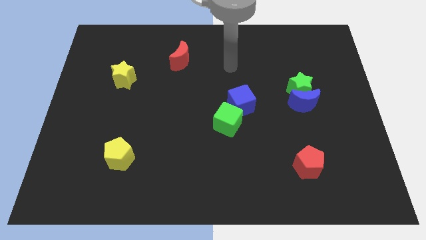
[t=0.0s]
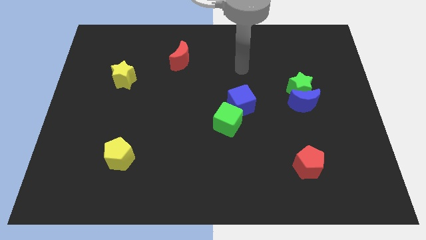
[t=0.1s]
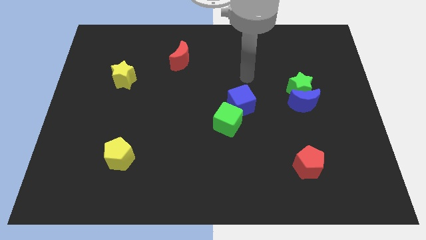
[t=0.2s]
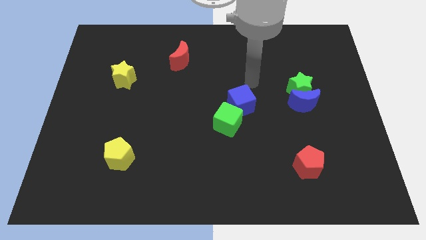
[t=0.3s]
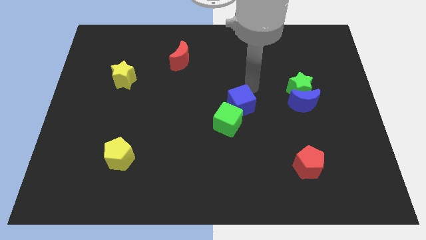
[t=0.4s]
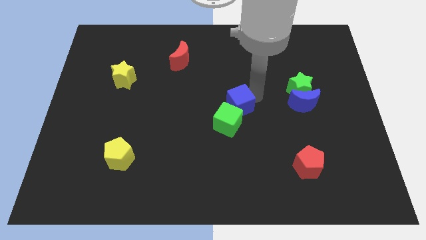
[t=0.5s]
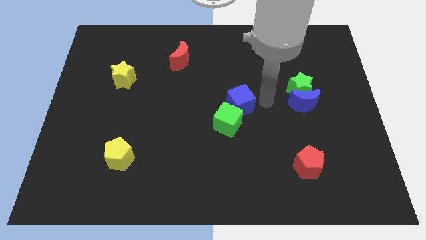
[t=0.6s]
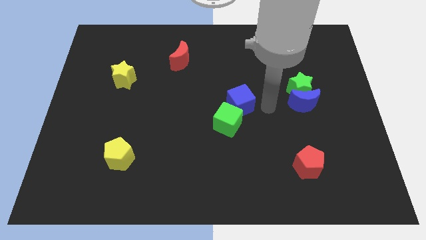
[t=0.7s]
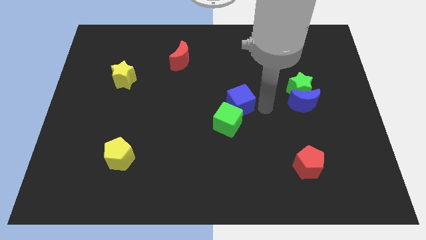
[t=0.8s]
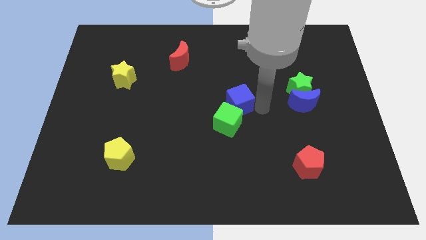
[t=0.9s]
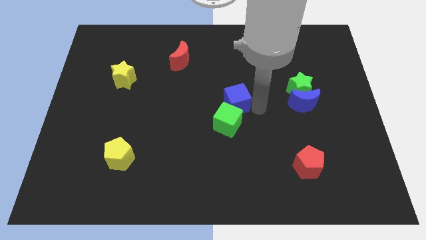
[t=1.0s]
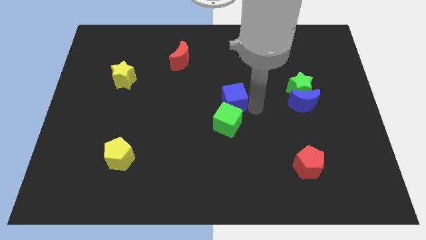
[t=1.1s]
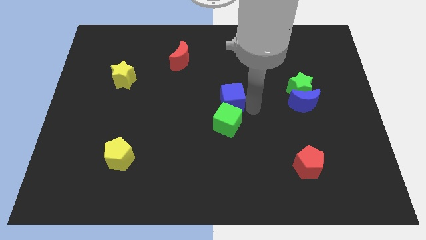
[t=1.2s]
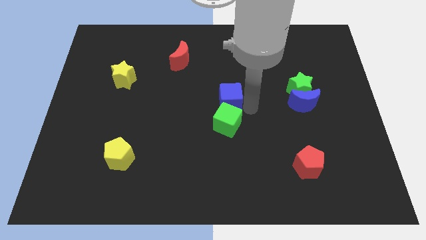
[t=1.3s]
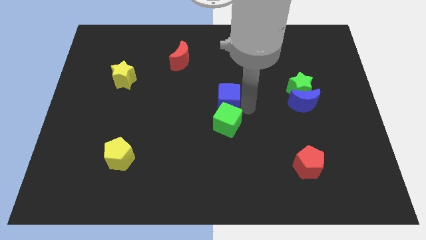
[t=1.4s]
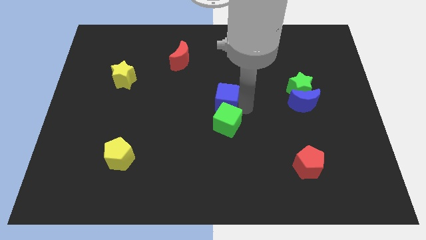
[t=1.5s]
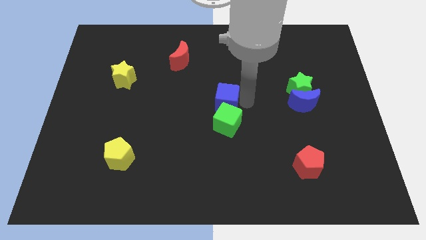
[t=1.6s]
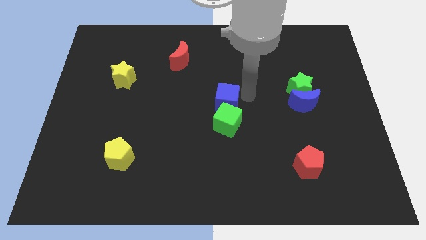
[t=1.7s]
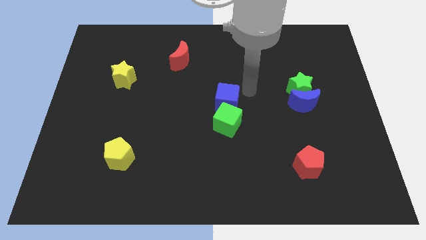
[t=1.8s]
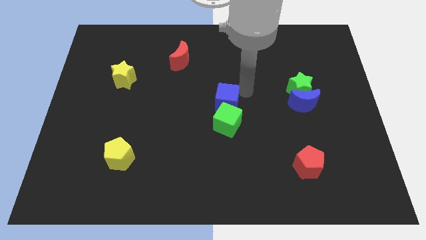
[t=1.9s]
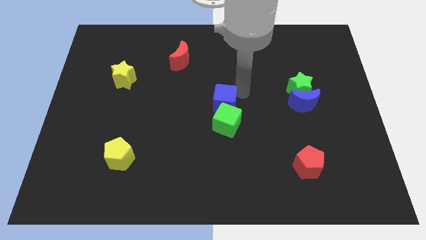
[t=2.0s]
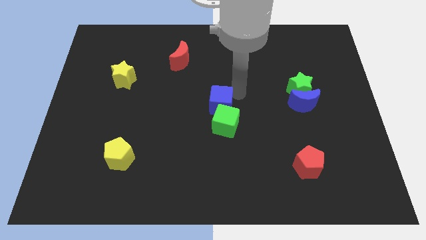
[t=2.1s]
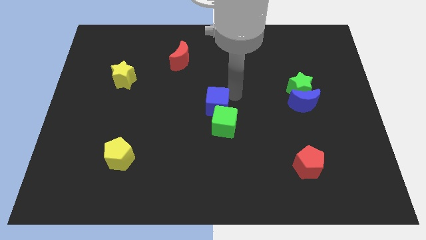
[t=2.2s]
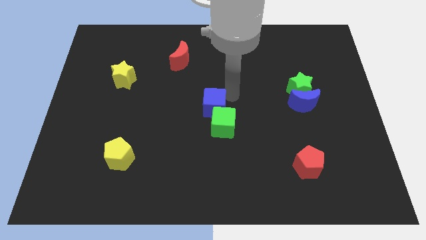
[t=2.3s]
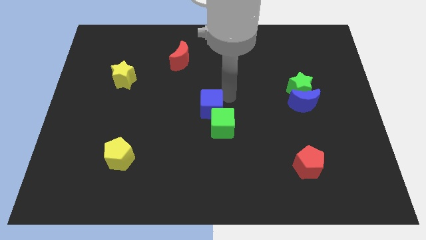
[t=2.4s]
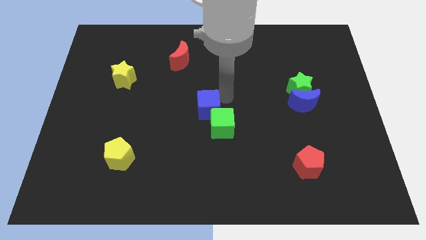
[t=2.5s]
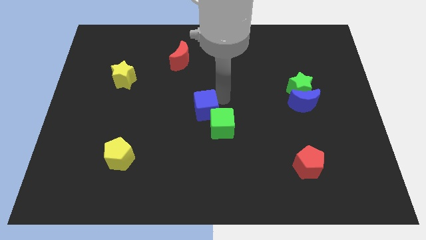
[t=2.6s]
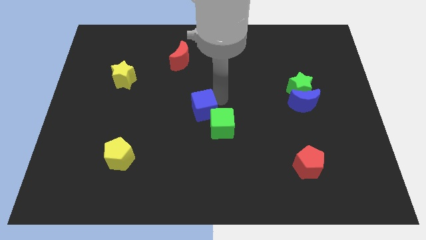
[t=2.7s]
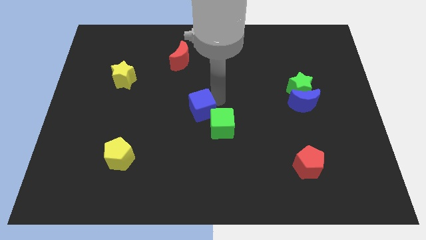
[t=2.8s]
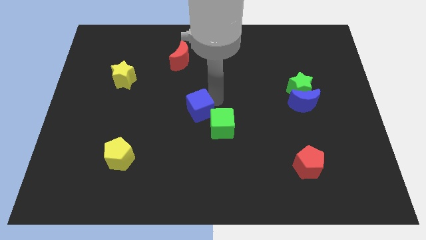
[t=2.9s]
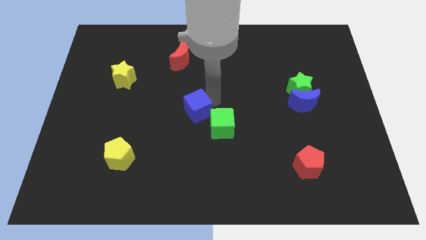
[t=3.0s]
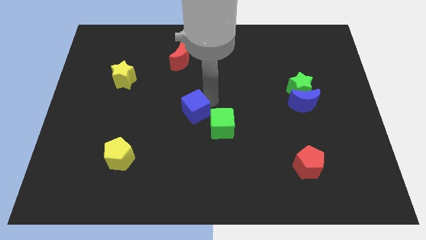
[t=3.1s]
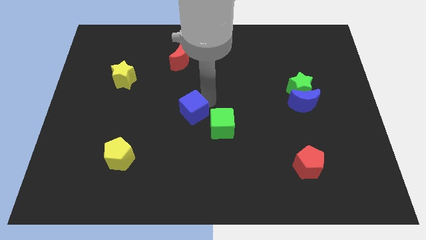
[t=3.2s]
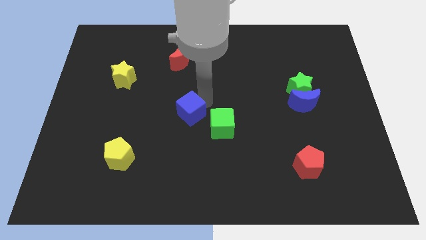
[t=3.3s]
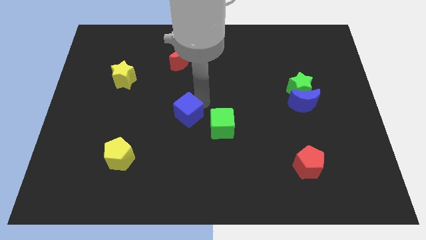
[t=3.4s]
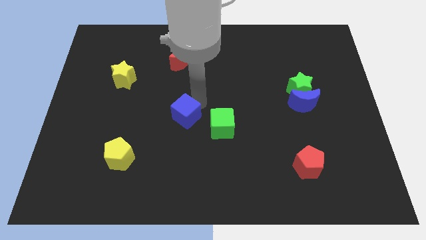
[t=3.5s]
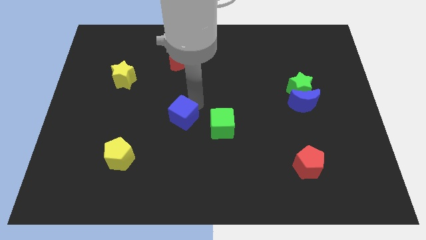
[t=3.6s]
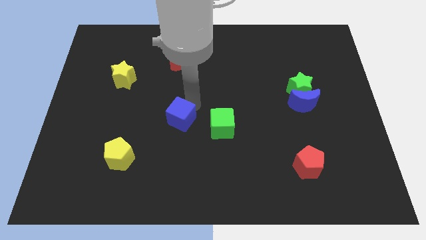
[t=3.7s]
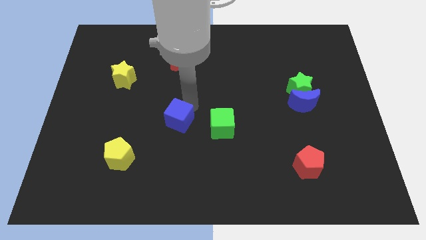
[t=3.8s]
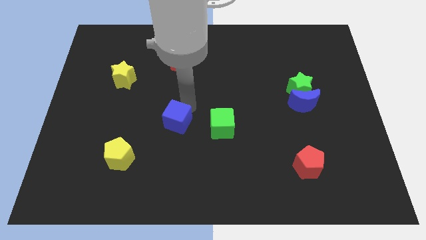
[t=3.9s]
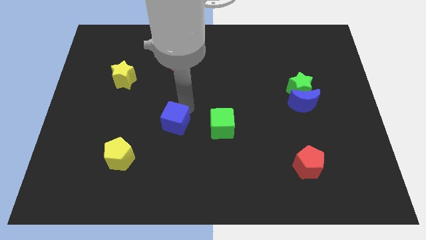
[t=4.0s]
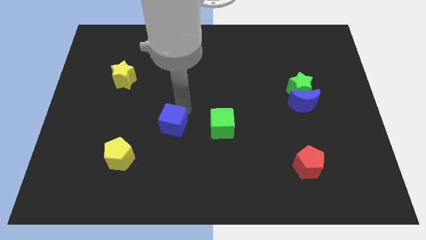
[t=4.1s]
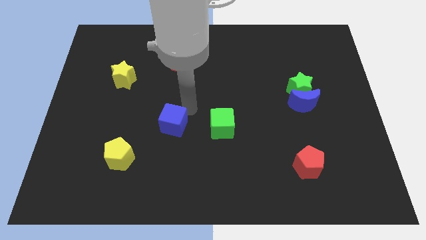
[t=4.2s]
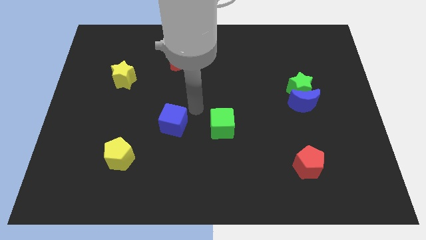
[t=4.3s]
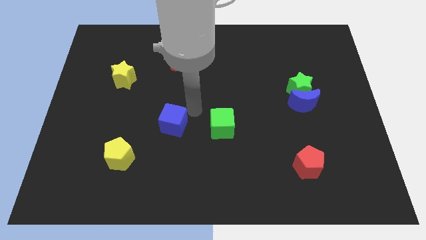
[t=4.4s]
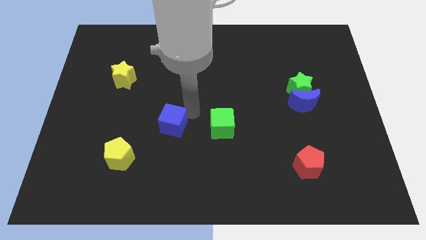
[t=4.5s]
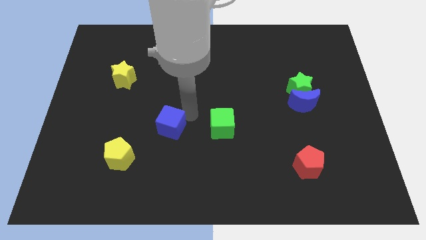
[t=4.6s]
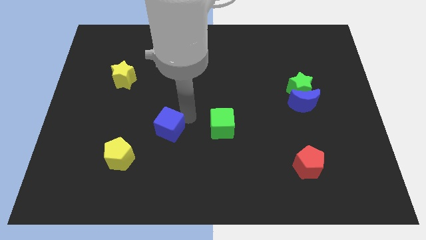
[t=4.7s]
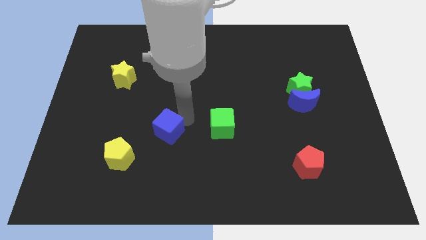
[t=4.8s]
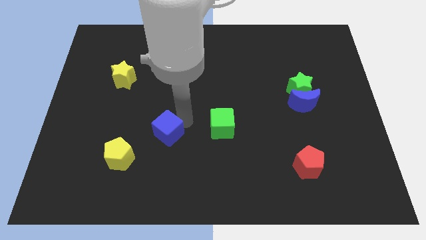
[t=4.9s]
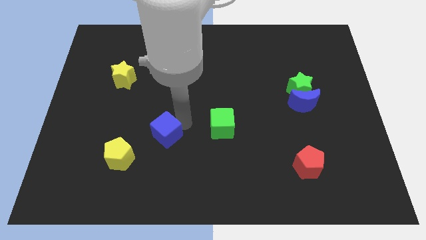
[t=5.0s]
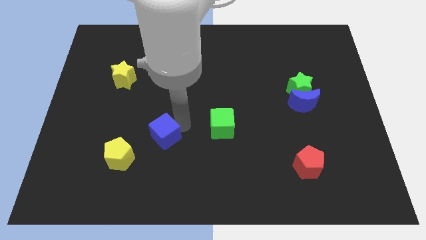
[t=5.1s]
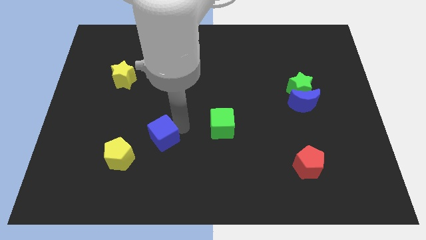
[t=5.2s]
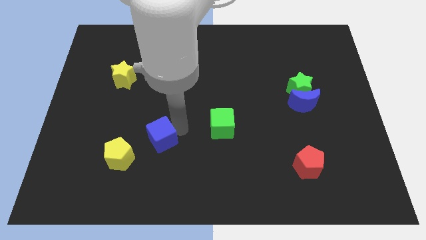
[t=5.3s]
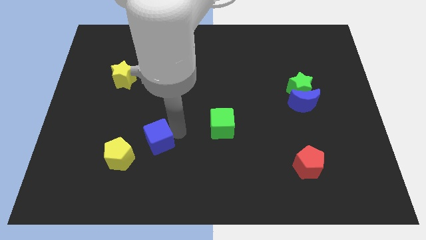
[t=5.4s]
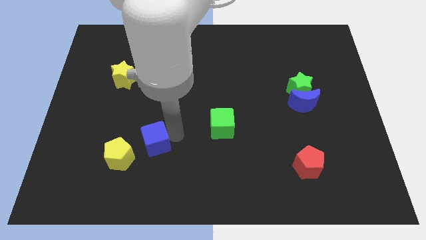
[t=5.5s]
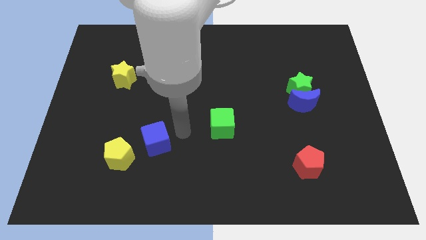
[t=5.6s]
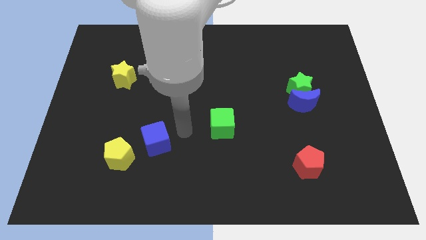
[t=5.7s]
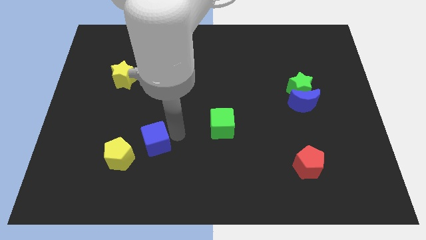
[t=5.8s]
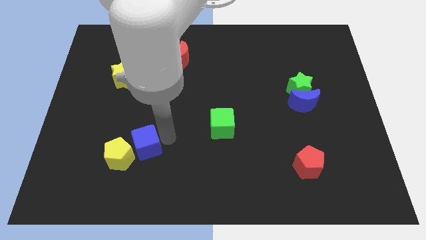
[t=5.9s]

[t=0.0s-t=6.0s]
slide the blue cube towards the yellow pentagon

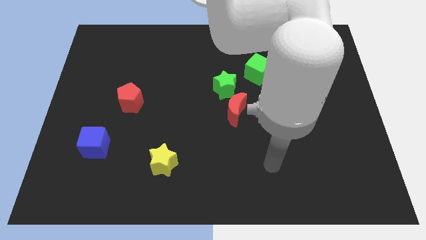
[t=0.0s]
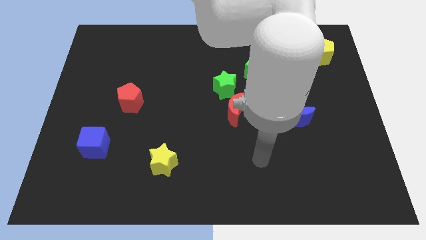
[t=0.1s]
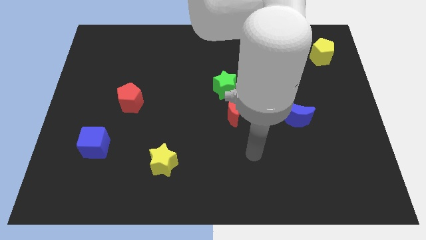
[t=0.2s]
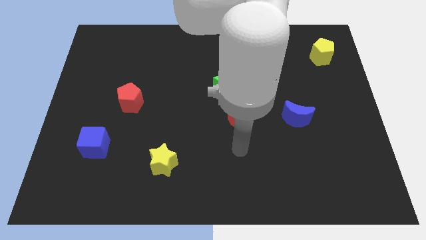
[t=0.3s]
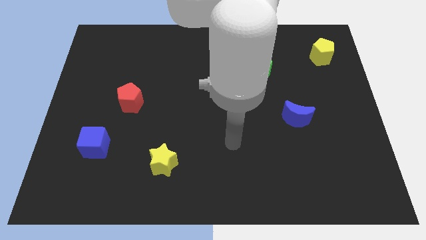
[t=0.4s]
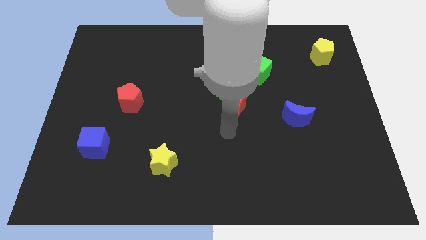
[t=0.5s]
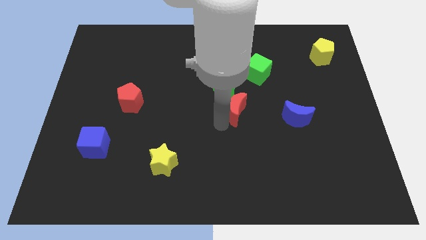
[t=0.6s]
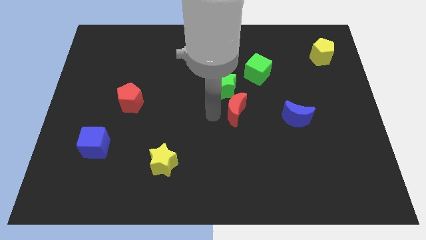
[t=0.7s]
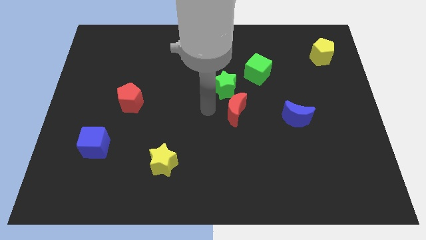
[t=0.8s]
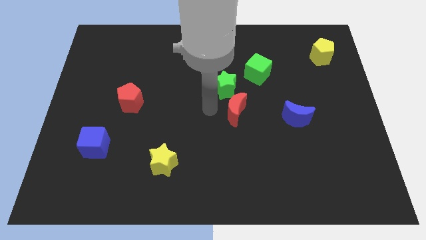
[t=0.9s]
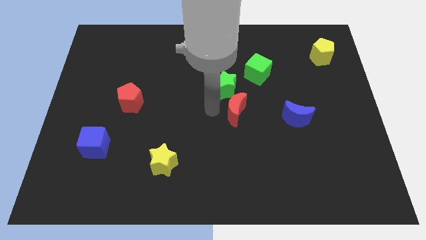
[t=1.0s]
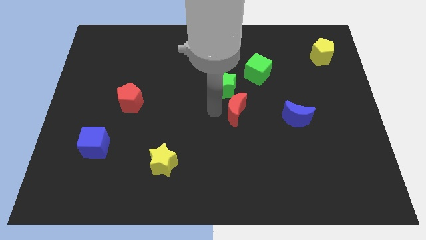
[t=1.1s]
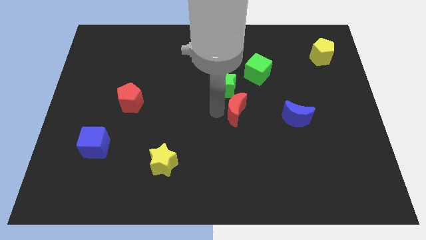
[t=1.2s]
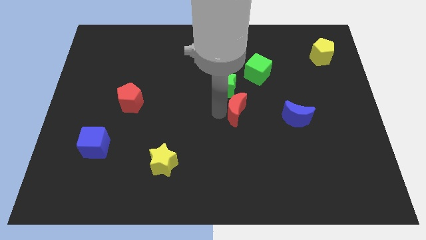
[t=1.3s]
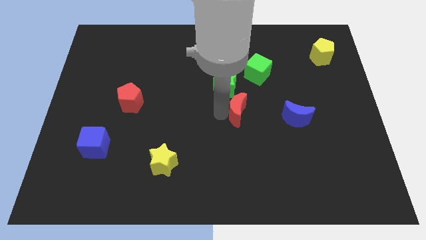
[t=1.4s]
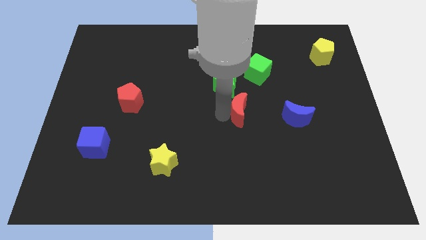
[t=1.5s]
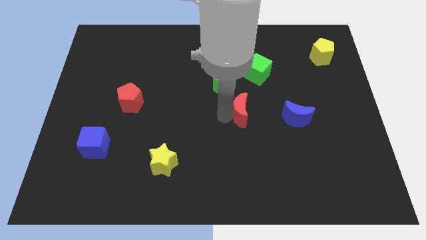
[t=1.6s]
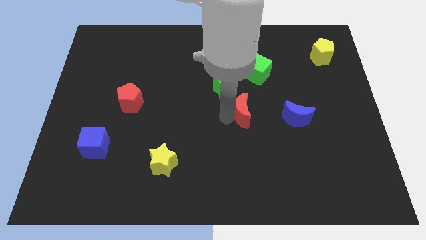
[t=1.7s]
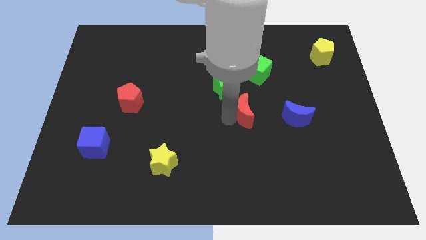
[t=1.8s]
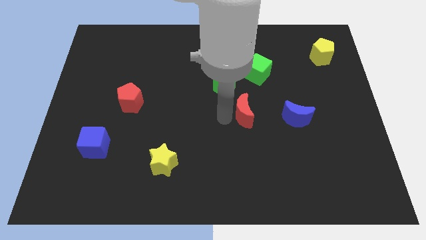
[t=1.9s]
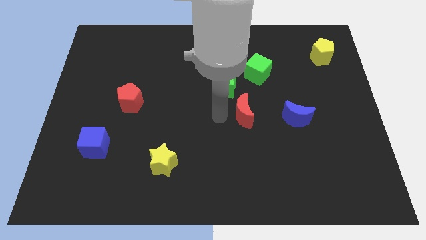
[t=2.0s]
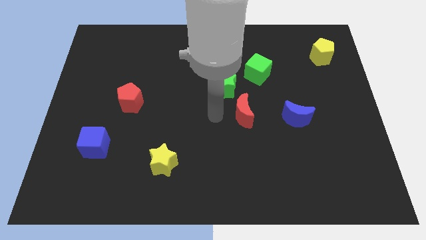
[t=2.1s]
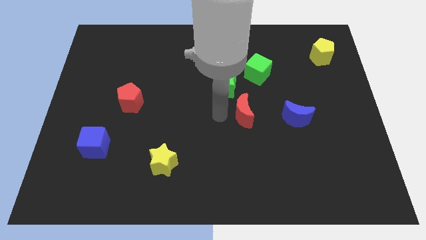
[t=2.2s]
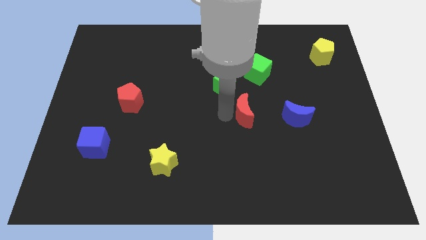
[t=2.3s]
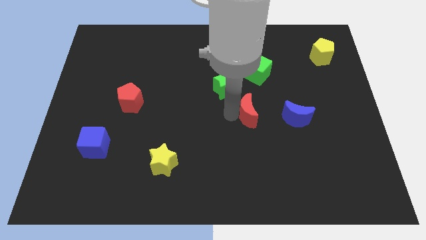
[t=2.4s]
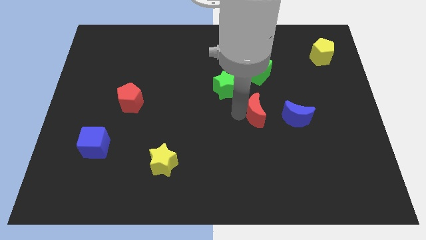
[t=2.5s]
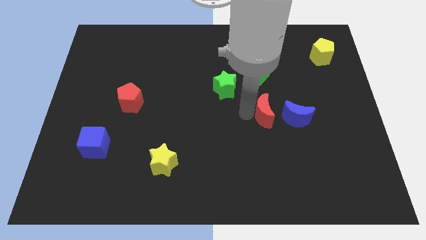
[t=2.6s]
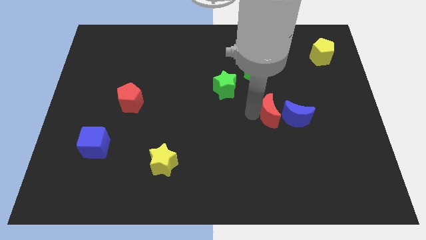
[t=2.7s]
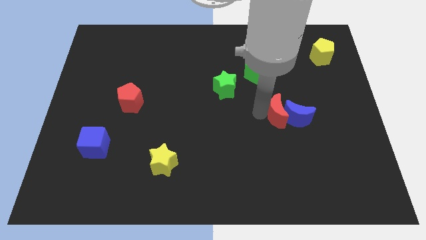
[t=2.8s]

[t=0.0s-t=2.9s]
slide the red moon next to the blue moon
